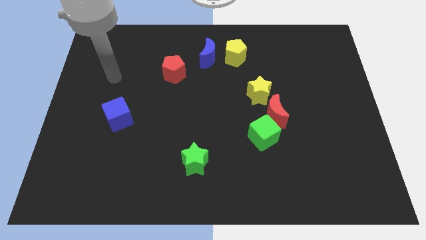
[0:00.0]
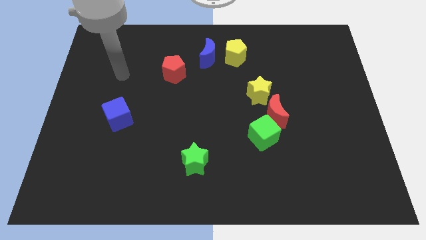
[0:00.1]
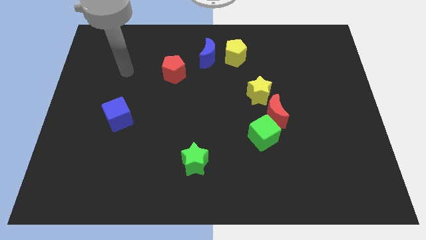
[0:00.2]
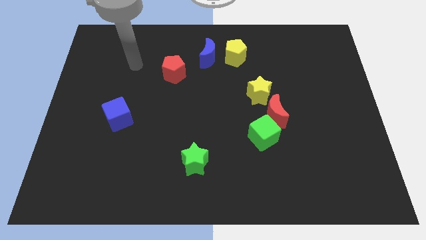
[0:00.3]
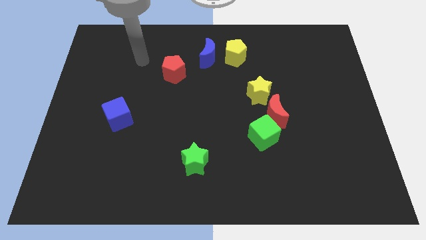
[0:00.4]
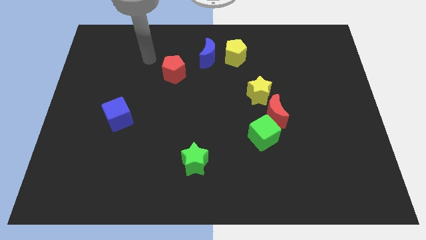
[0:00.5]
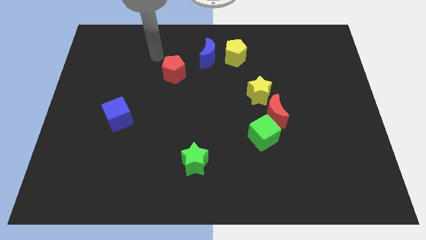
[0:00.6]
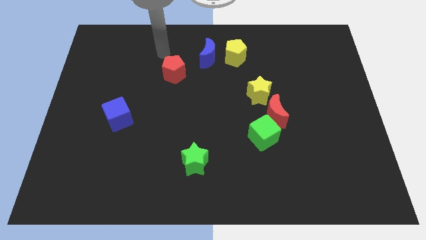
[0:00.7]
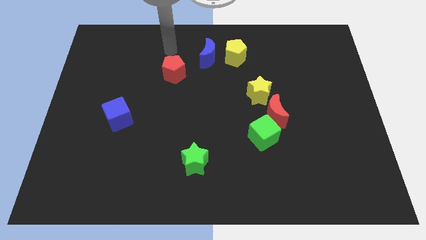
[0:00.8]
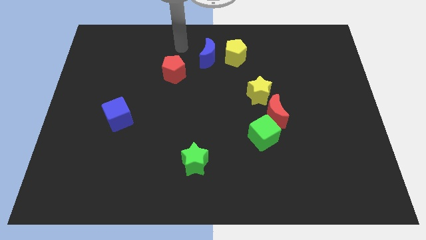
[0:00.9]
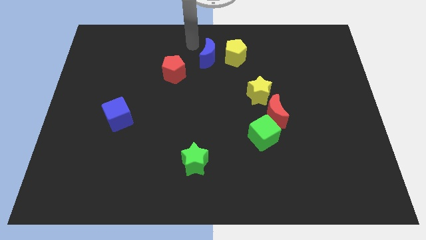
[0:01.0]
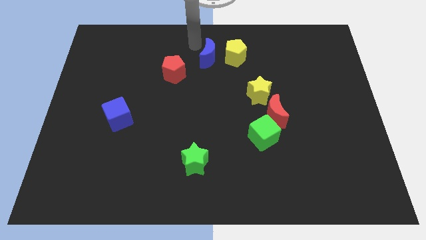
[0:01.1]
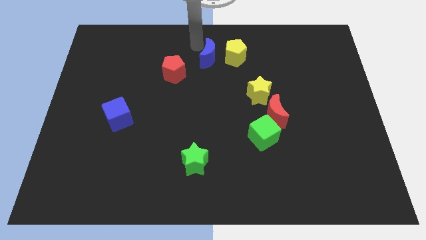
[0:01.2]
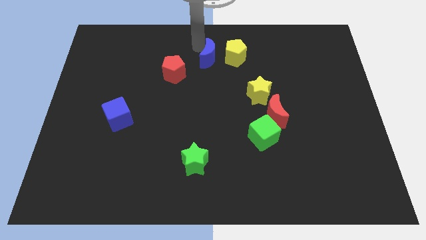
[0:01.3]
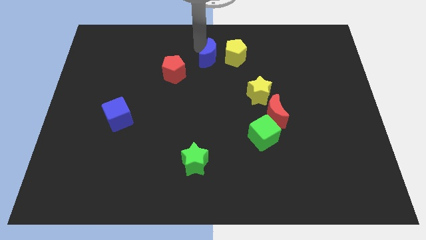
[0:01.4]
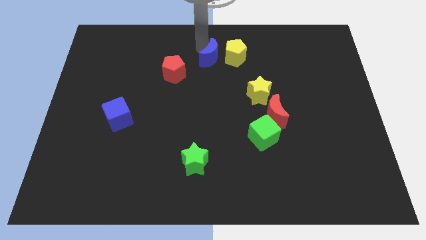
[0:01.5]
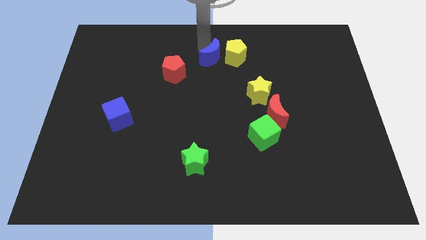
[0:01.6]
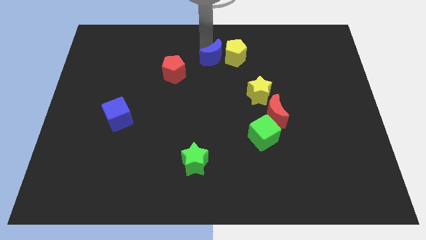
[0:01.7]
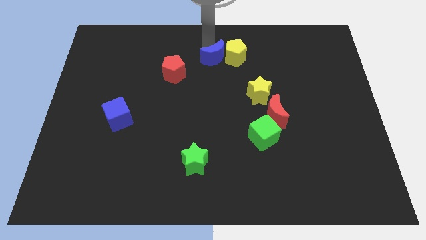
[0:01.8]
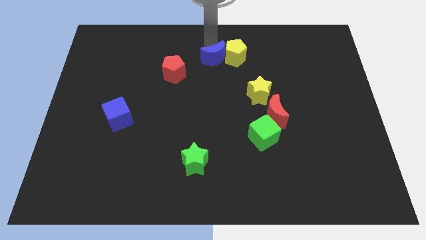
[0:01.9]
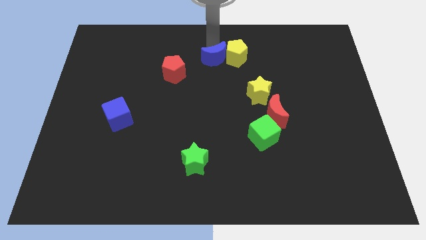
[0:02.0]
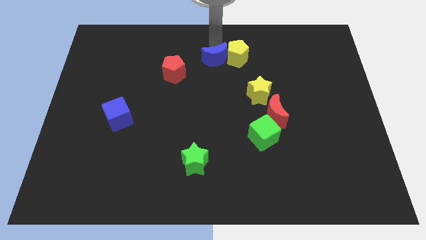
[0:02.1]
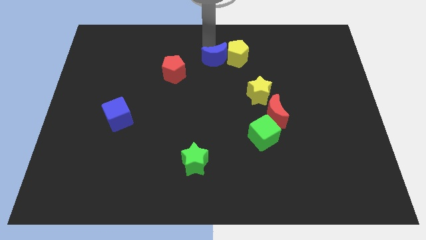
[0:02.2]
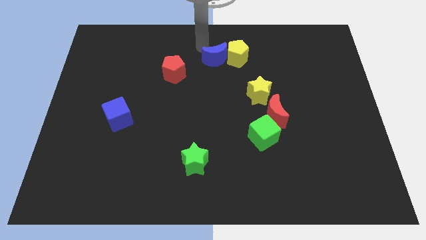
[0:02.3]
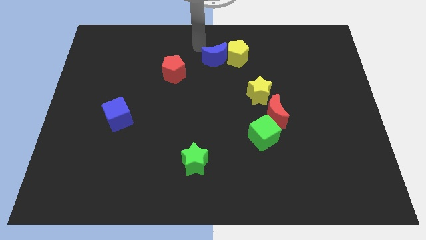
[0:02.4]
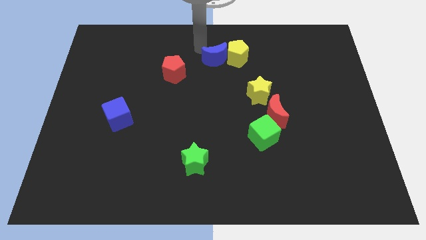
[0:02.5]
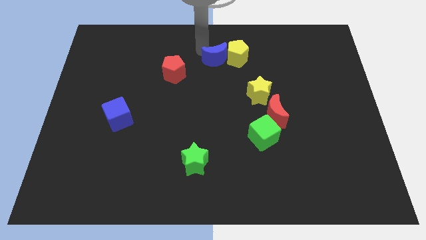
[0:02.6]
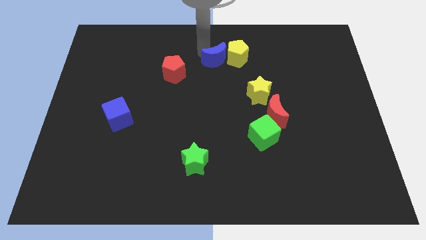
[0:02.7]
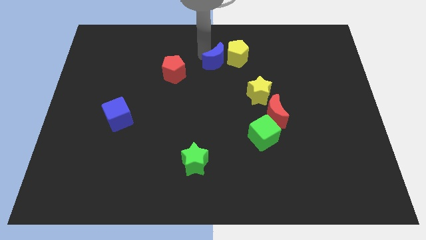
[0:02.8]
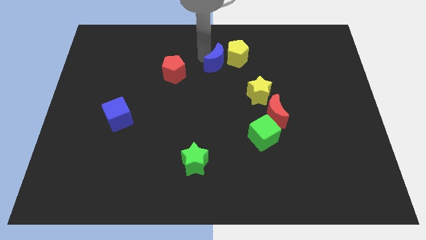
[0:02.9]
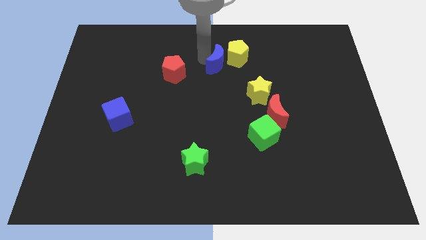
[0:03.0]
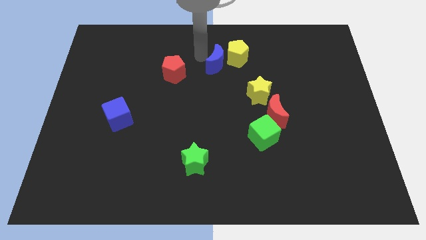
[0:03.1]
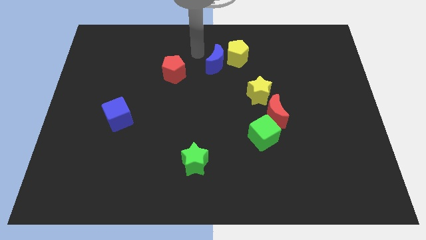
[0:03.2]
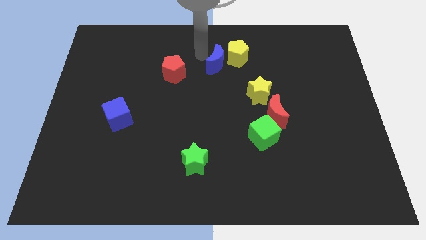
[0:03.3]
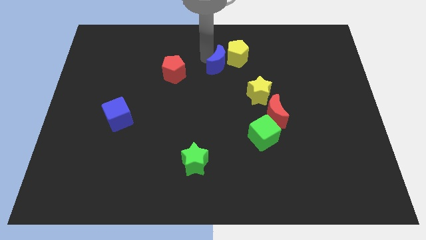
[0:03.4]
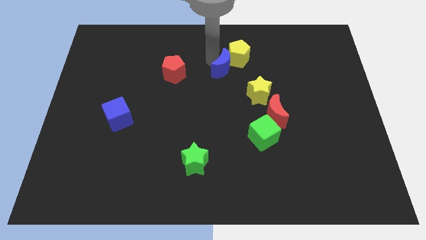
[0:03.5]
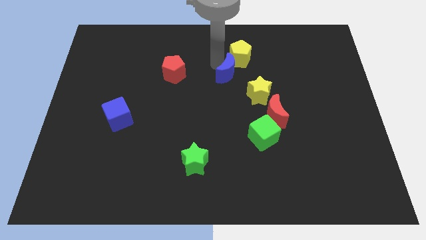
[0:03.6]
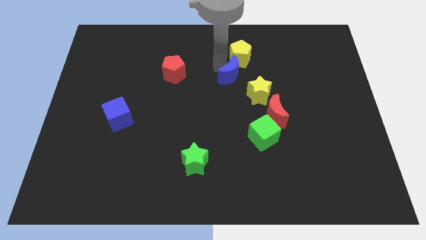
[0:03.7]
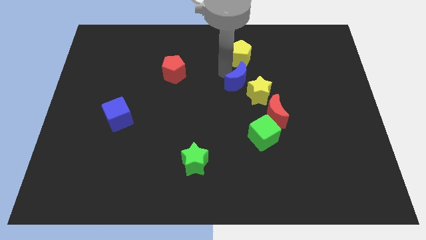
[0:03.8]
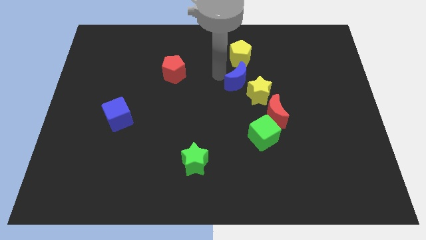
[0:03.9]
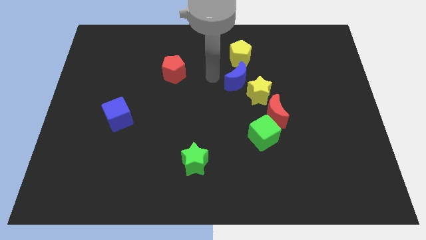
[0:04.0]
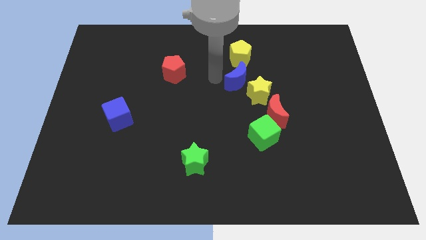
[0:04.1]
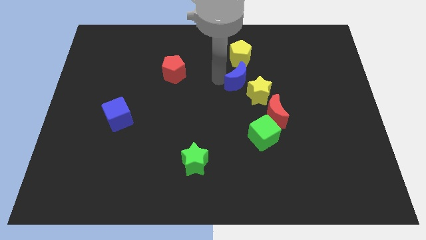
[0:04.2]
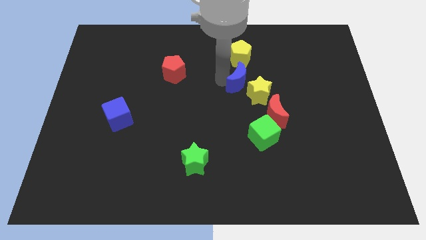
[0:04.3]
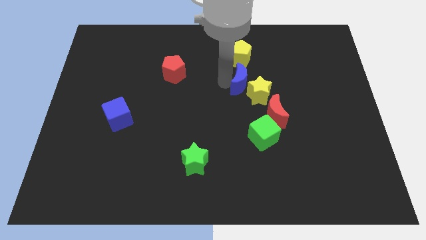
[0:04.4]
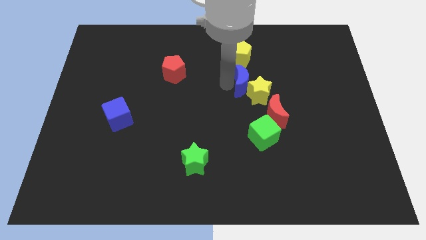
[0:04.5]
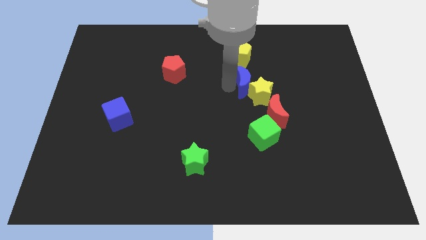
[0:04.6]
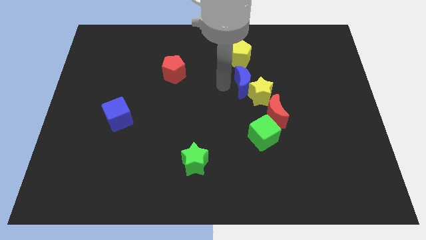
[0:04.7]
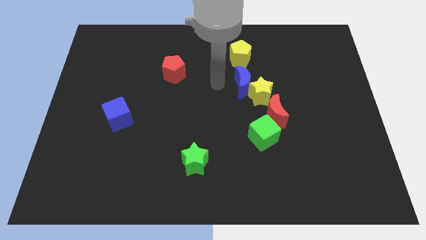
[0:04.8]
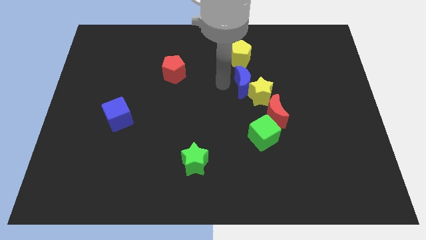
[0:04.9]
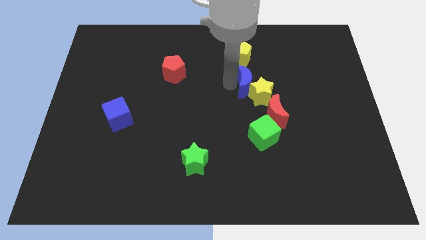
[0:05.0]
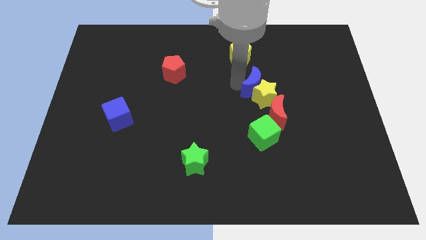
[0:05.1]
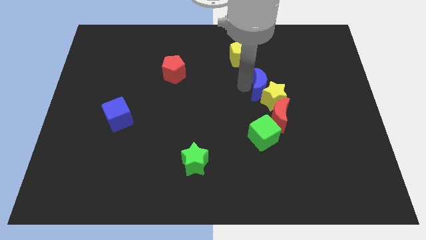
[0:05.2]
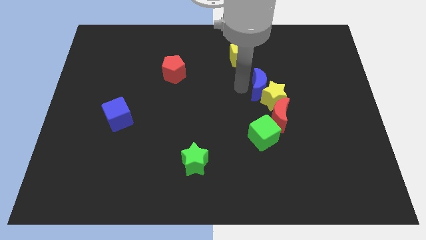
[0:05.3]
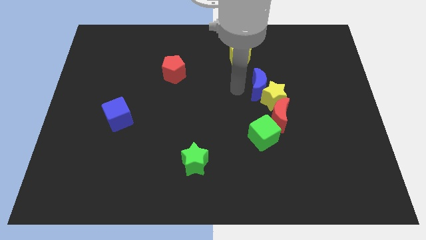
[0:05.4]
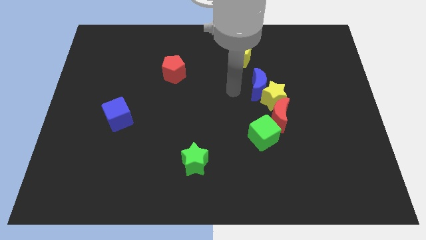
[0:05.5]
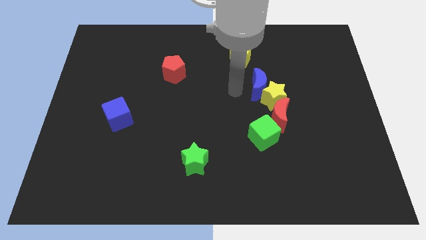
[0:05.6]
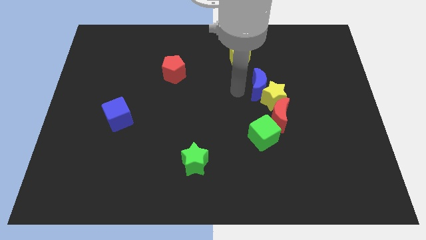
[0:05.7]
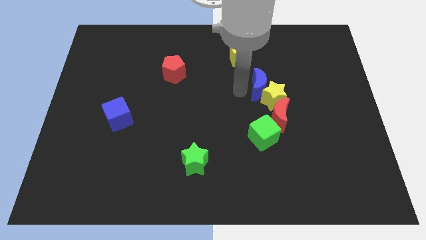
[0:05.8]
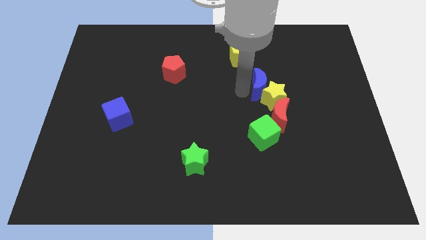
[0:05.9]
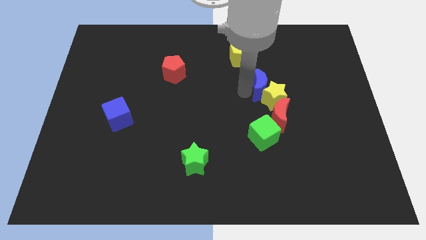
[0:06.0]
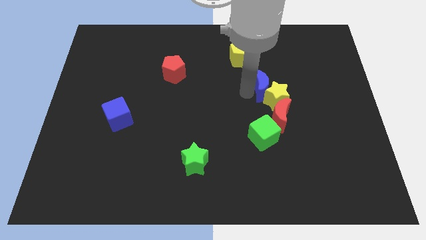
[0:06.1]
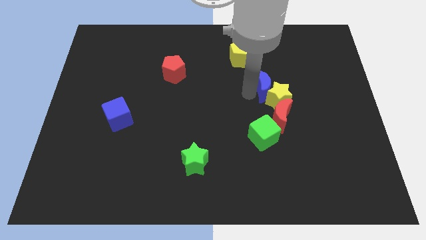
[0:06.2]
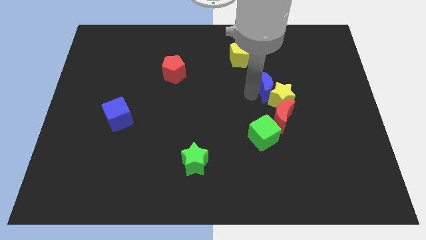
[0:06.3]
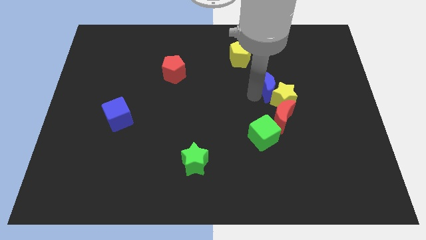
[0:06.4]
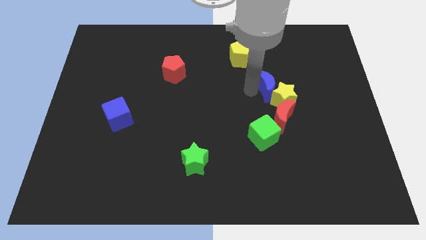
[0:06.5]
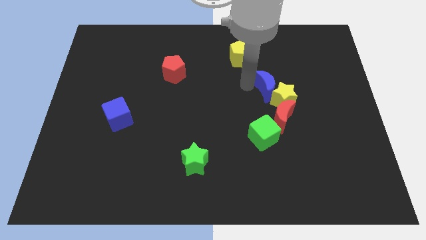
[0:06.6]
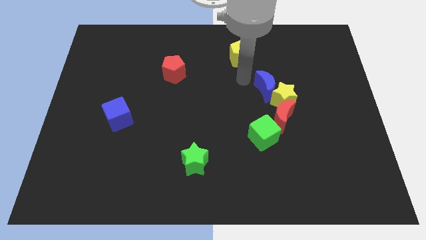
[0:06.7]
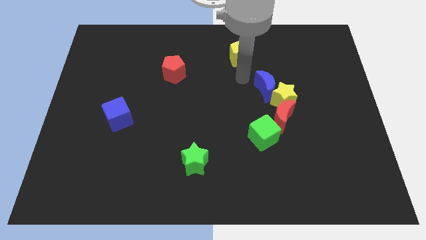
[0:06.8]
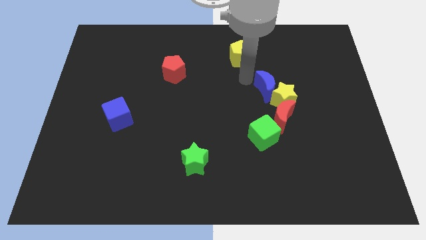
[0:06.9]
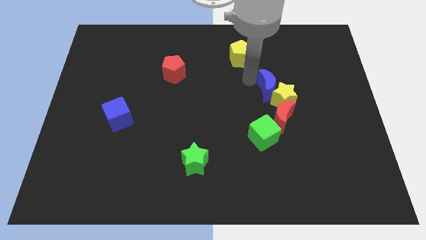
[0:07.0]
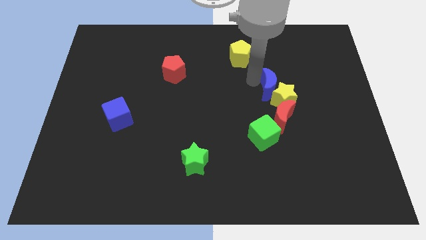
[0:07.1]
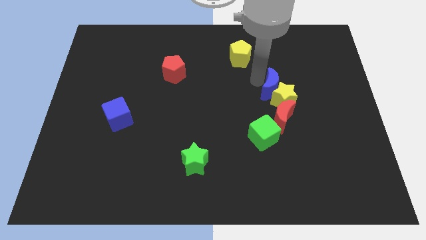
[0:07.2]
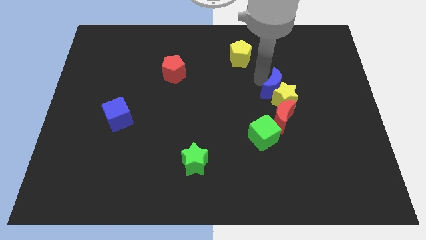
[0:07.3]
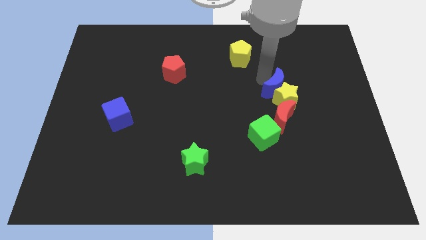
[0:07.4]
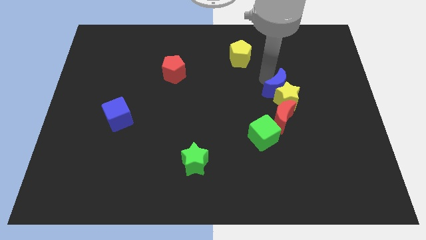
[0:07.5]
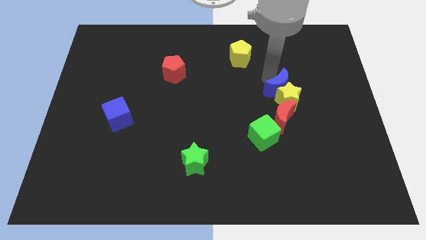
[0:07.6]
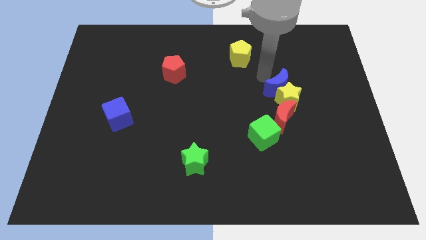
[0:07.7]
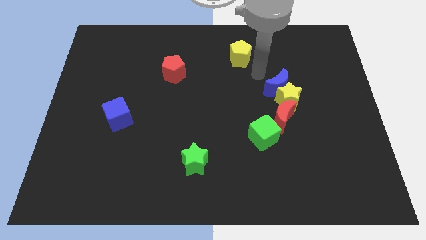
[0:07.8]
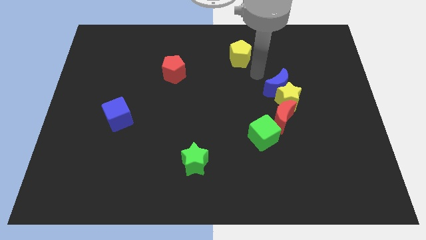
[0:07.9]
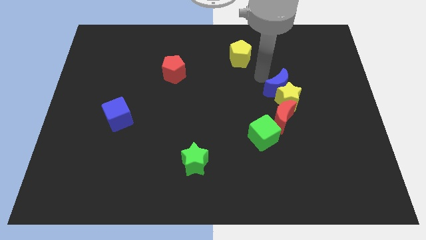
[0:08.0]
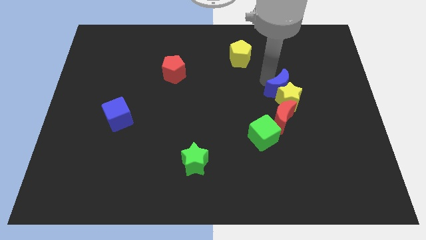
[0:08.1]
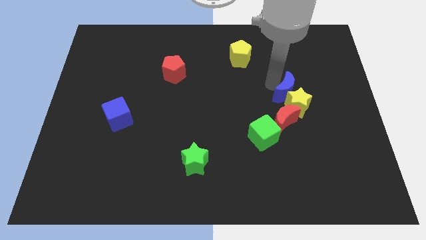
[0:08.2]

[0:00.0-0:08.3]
slide the blue moon downwards and then to the right
